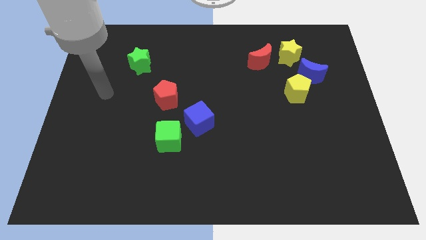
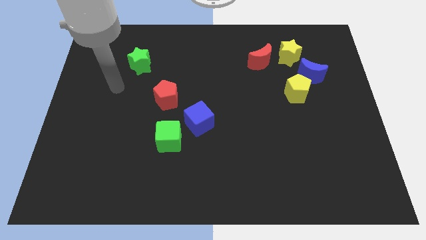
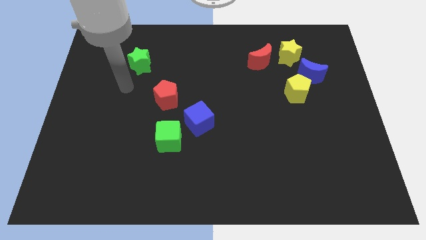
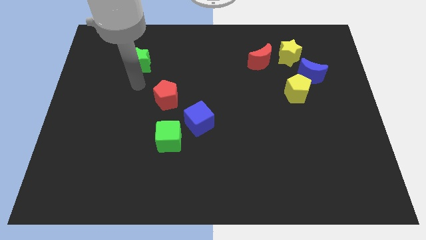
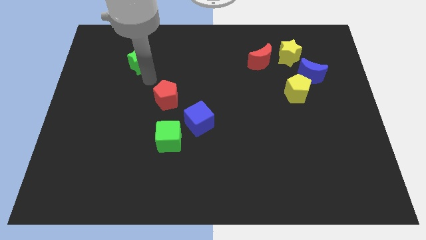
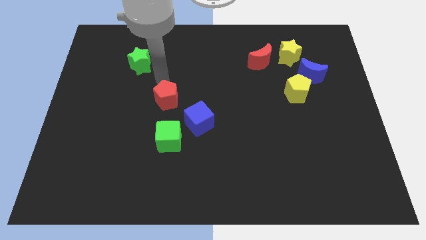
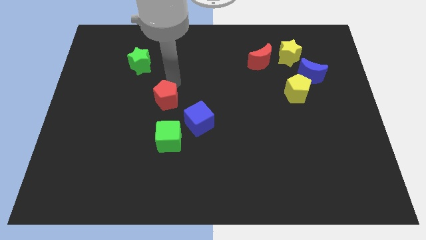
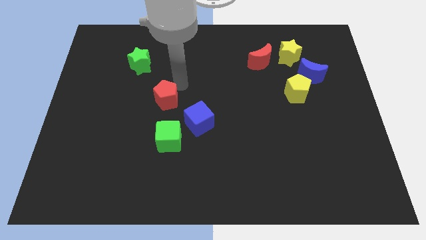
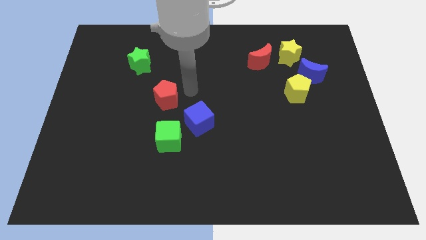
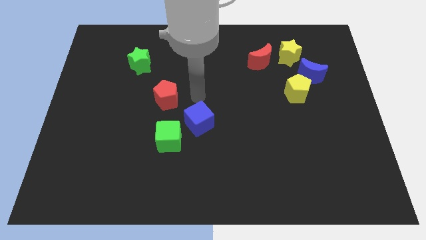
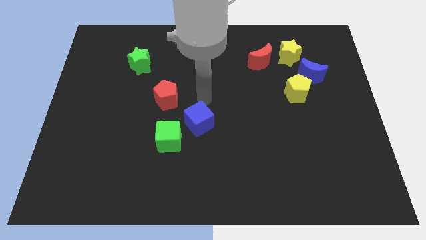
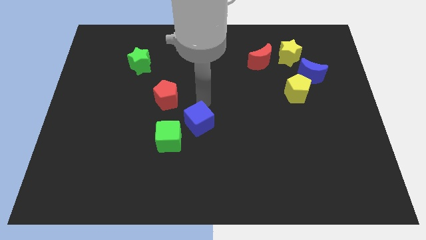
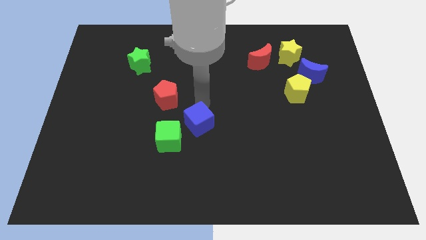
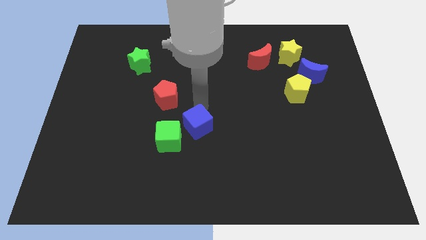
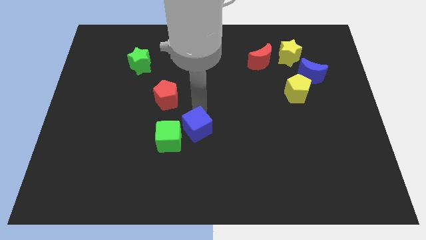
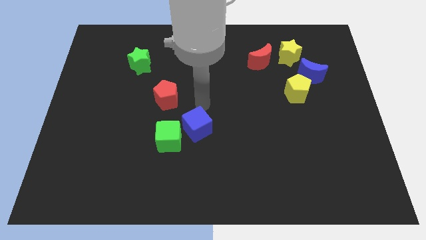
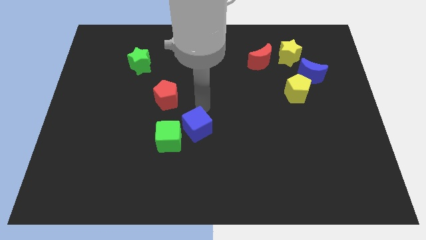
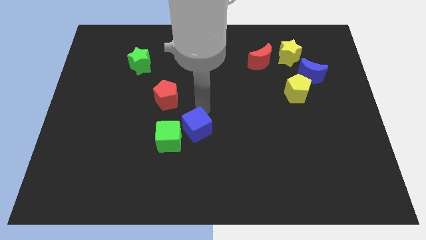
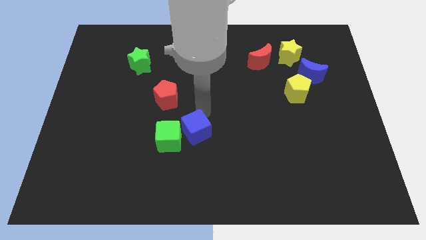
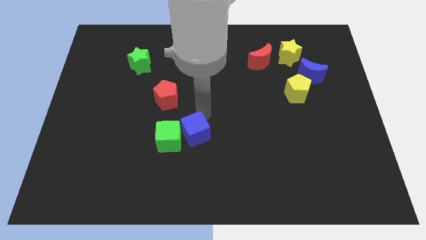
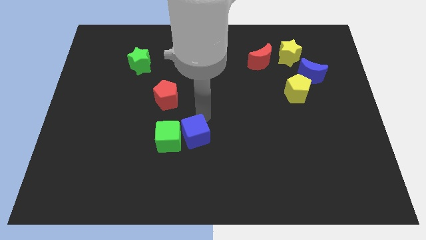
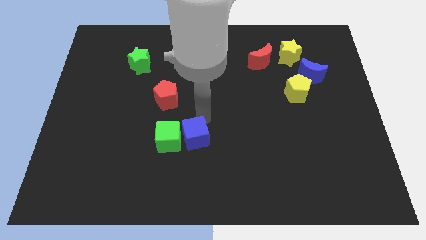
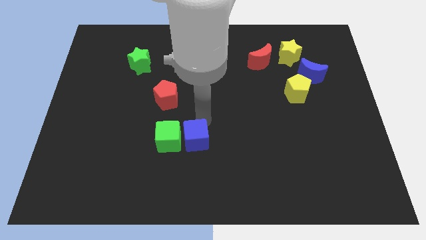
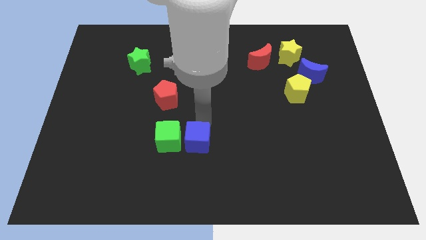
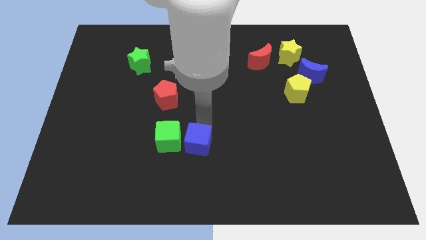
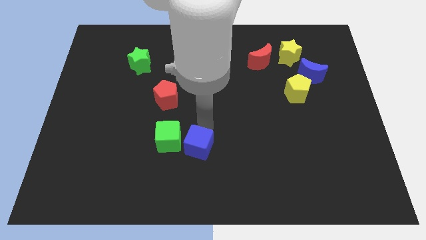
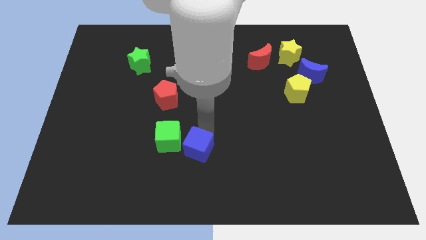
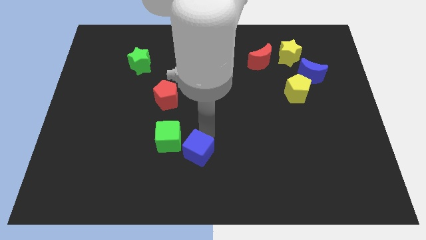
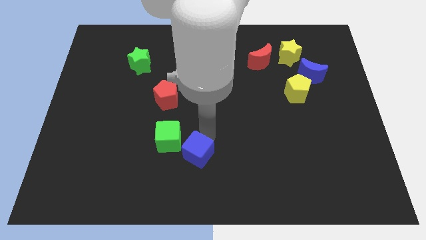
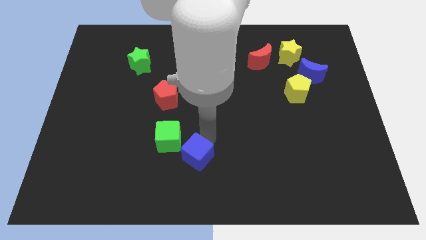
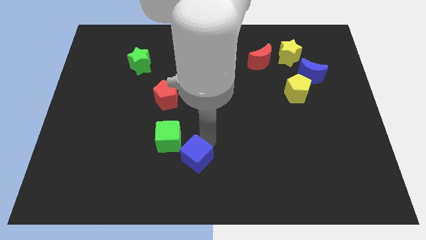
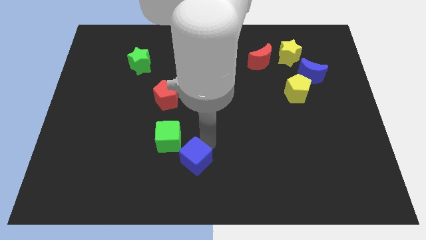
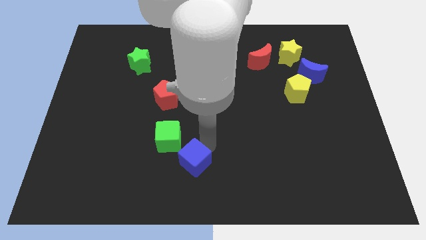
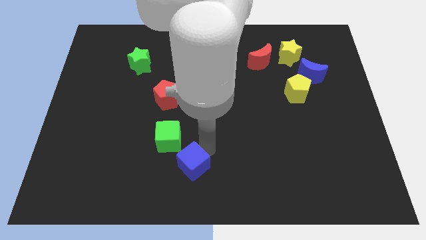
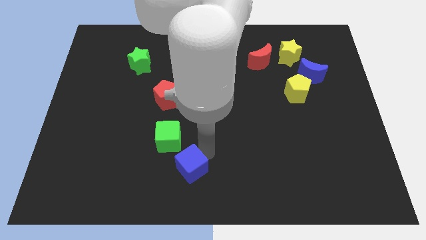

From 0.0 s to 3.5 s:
move the blue cube a bit diagonally down and left

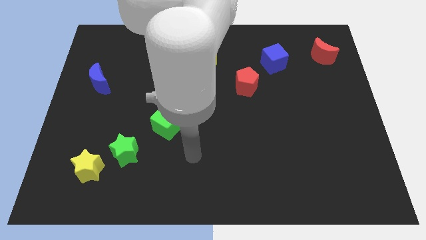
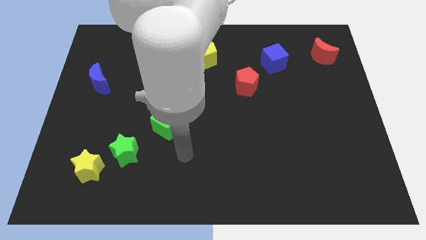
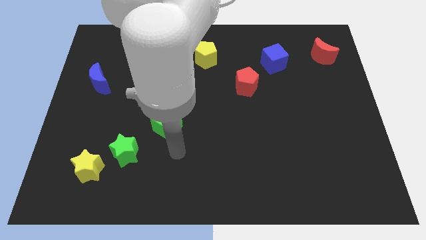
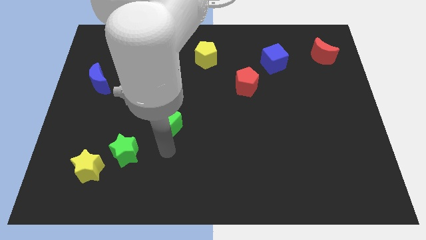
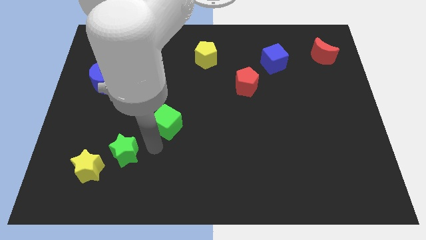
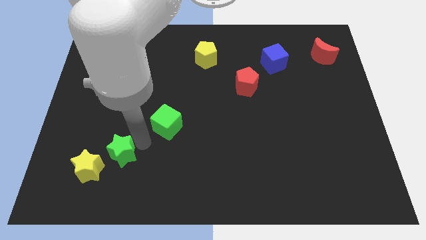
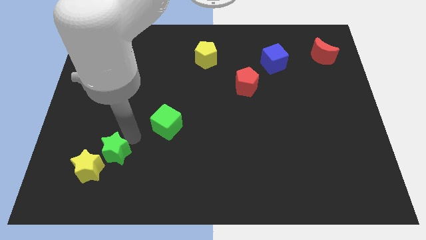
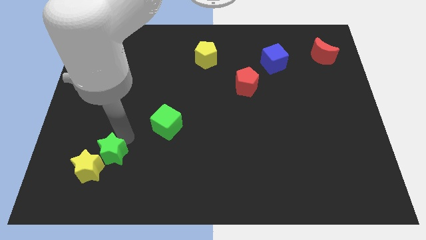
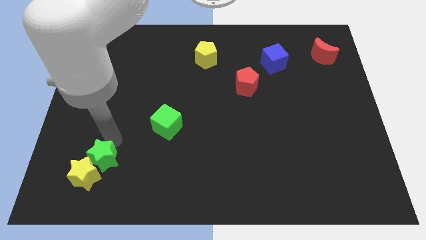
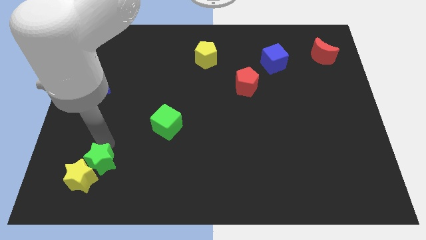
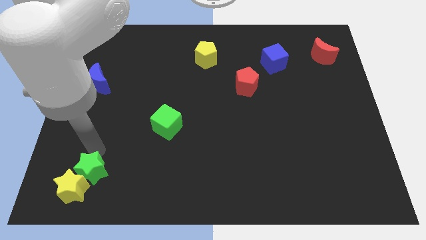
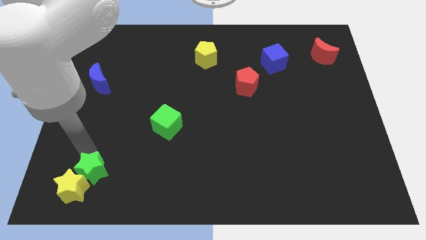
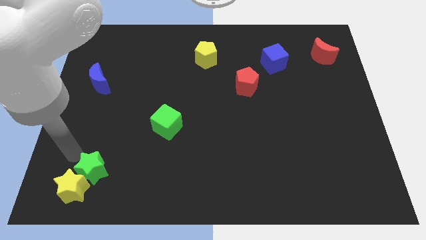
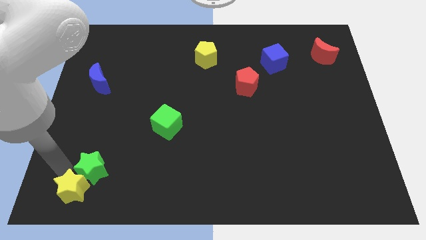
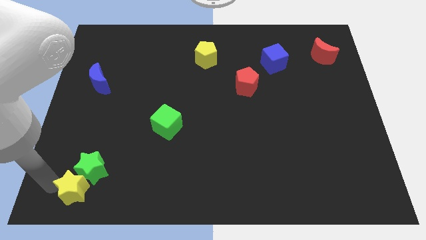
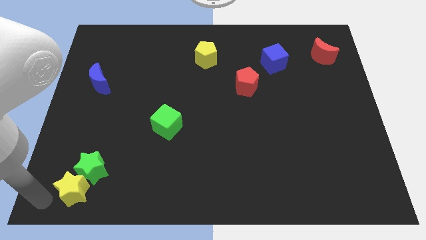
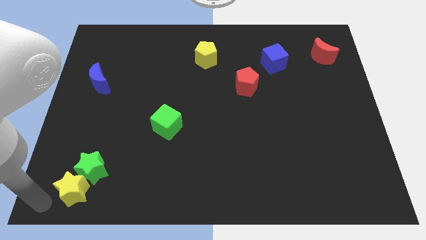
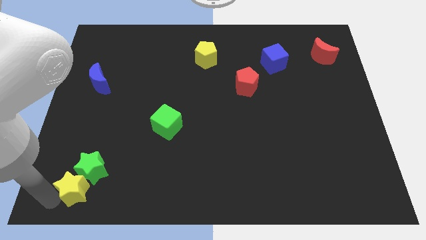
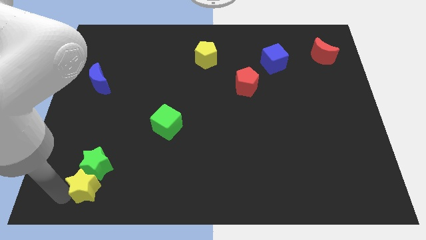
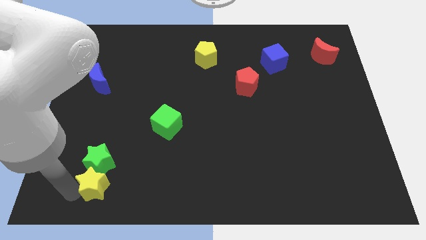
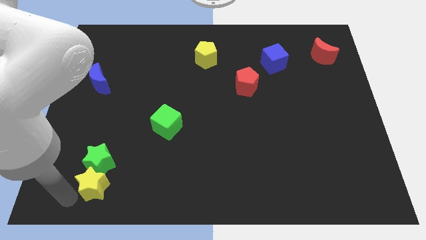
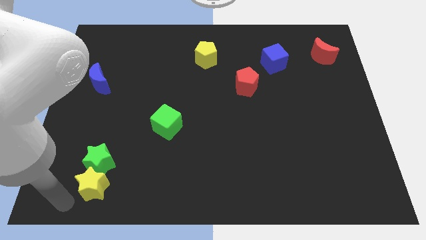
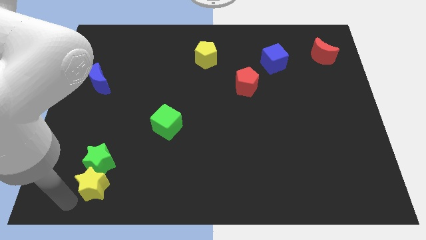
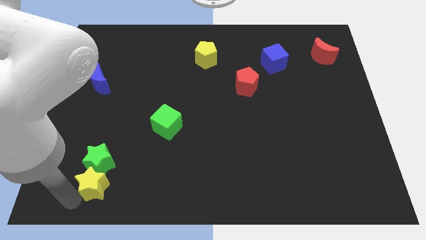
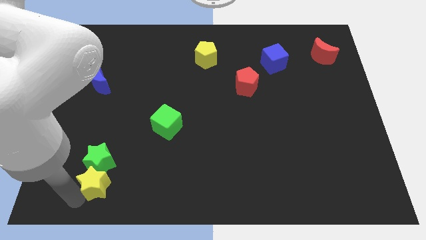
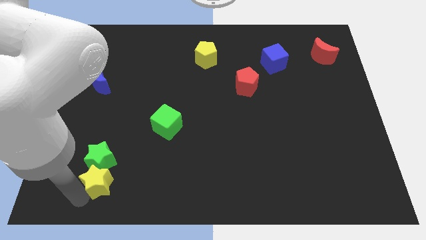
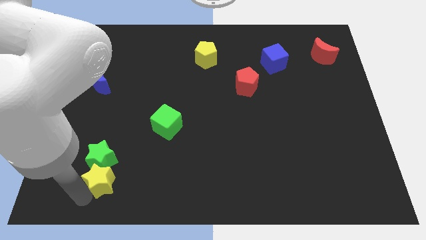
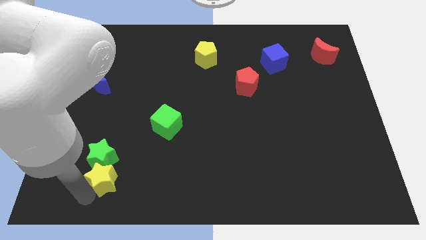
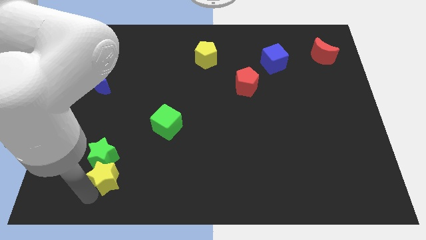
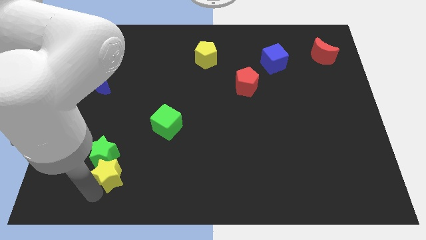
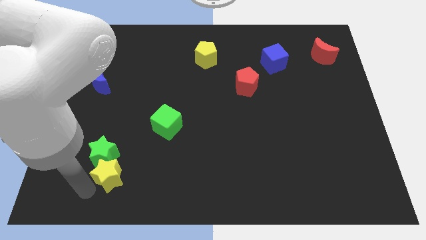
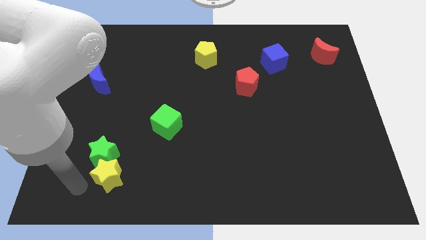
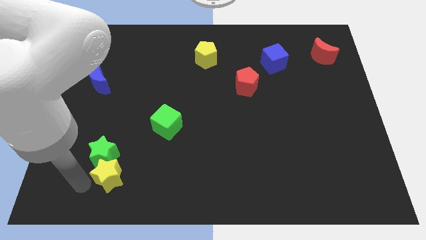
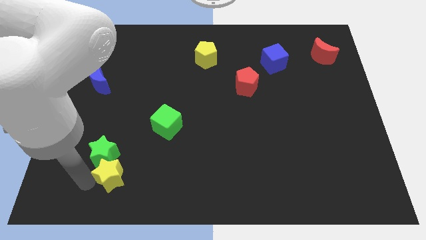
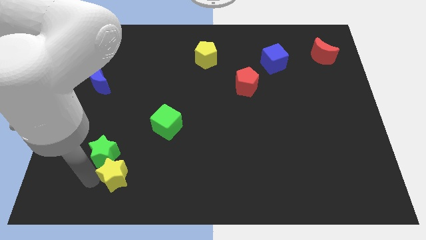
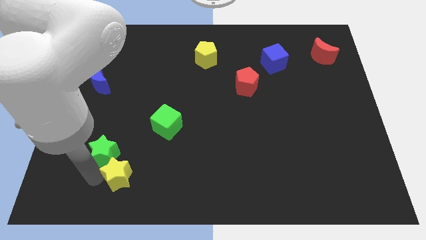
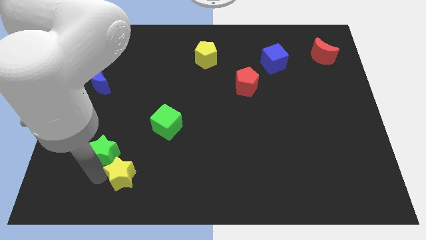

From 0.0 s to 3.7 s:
slightly slide the yellow star right

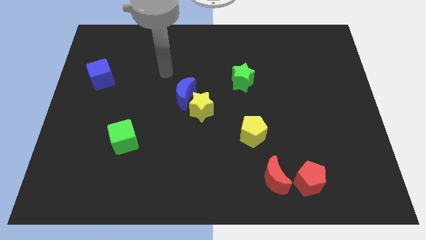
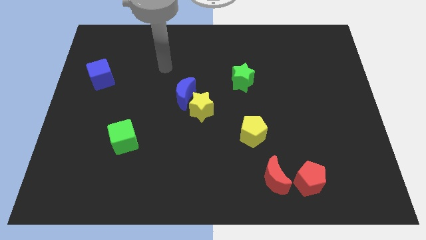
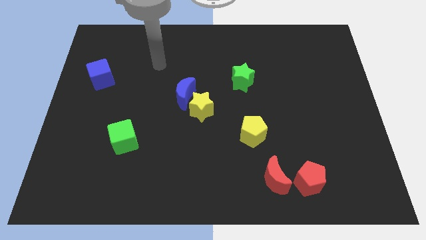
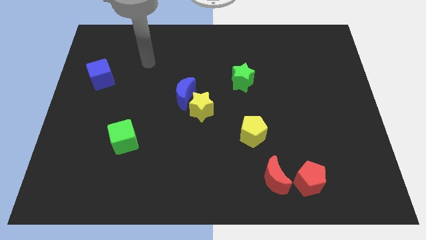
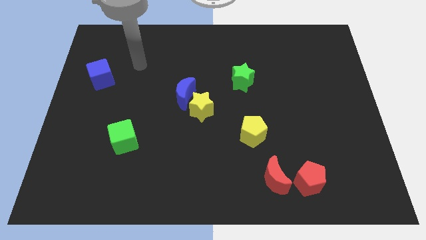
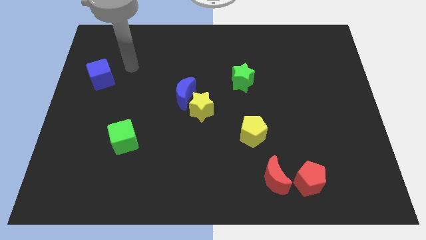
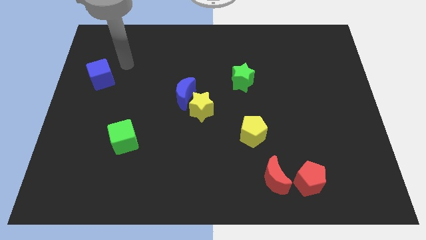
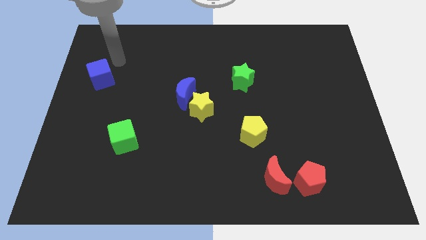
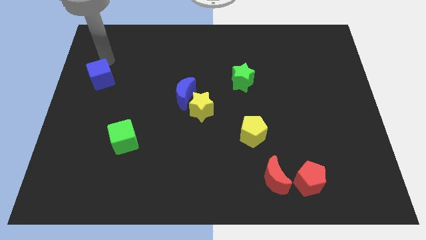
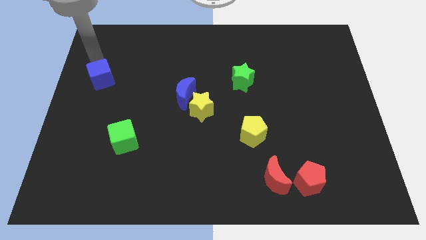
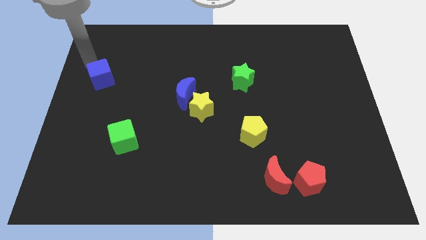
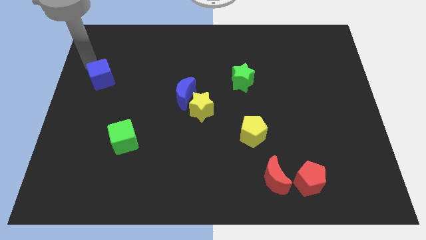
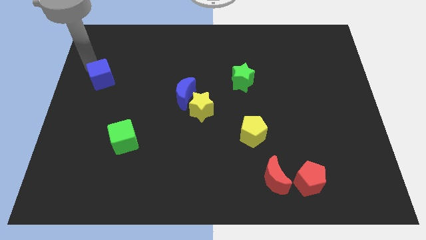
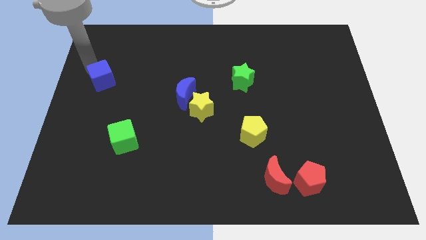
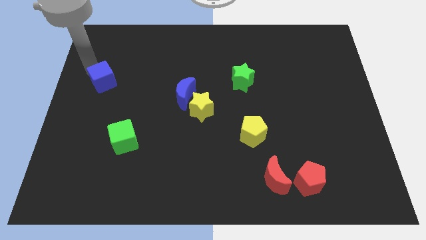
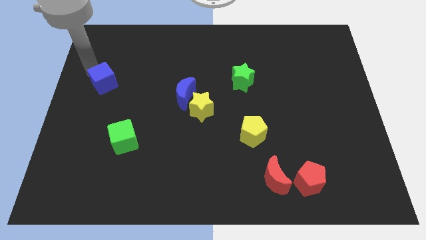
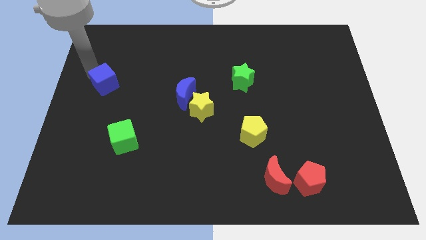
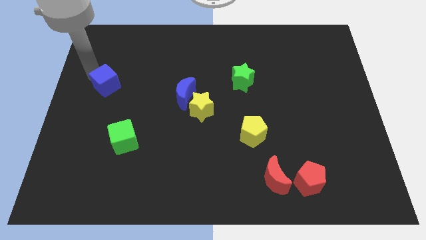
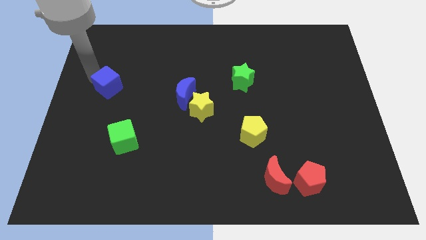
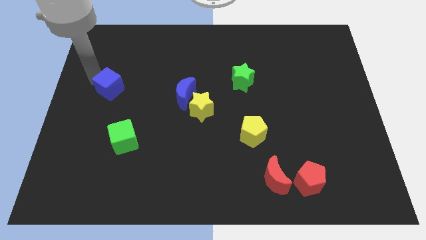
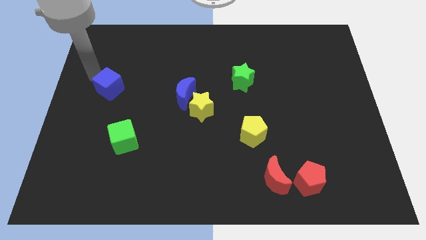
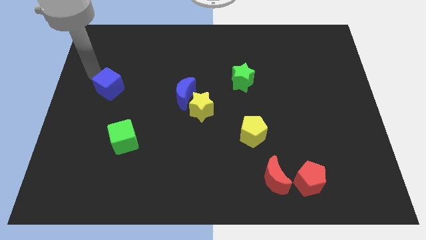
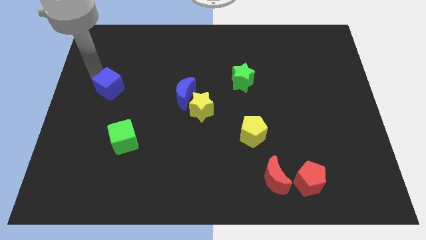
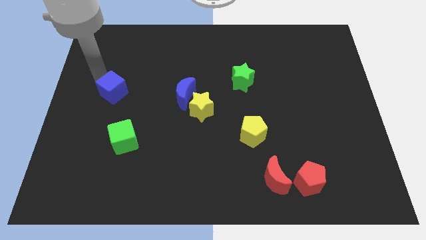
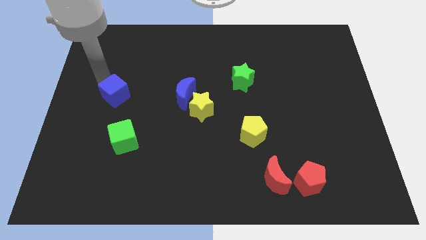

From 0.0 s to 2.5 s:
slightly slide the blue cube downwards and to the right
